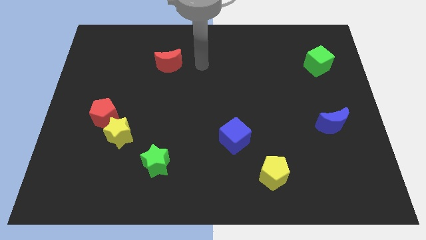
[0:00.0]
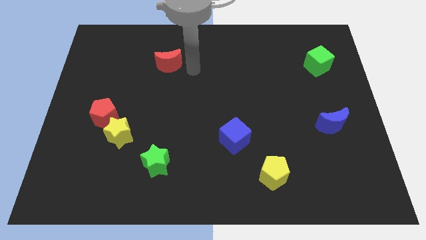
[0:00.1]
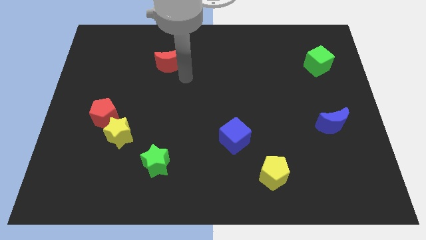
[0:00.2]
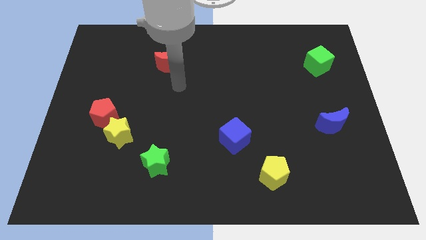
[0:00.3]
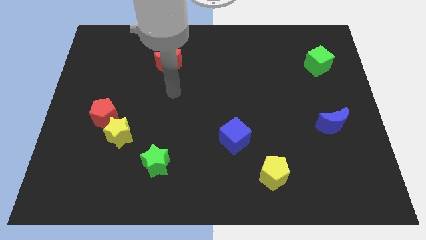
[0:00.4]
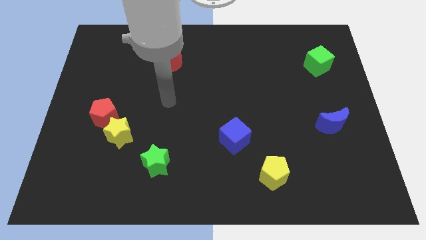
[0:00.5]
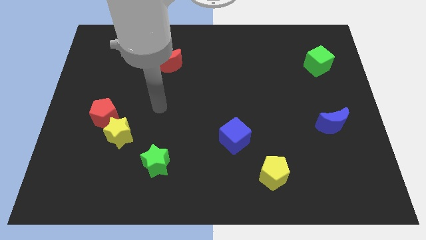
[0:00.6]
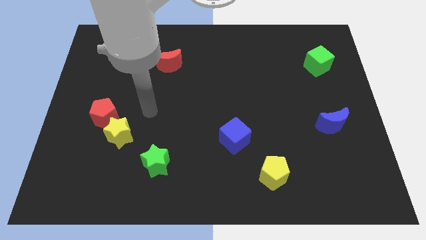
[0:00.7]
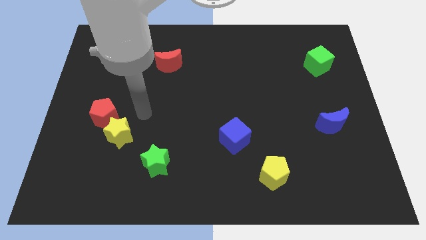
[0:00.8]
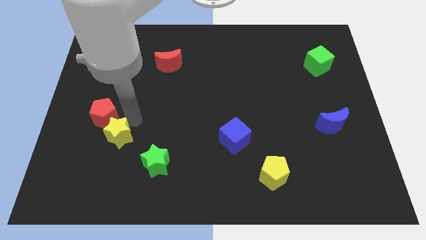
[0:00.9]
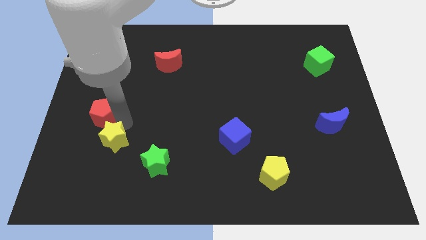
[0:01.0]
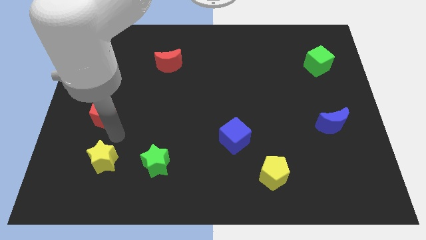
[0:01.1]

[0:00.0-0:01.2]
separate the red pentagon from the yellow star

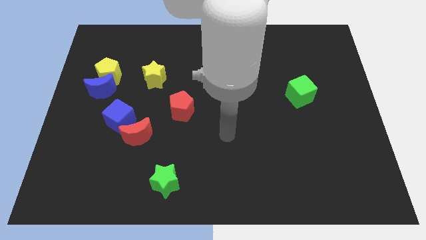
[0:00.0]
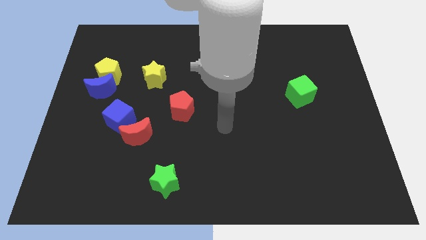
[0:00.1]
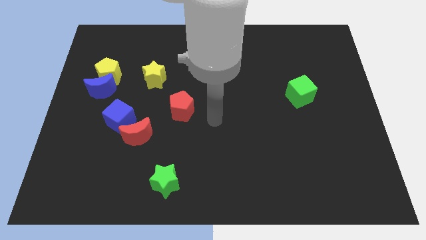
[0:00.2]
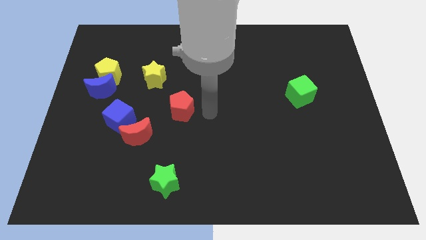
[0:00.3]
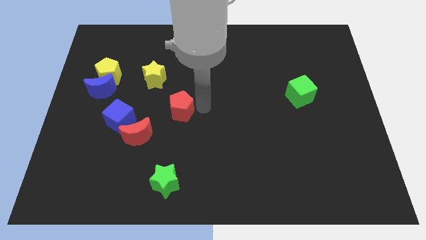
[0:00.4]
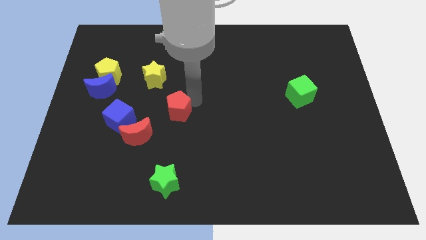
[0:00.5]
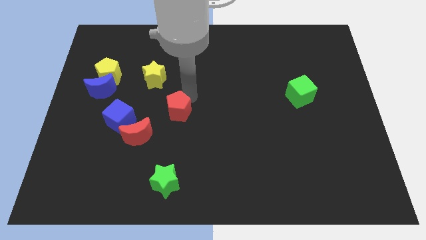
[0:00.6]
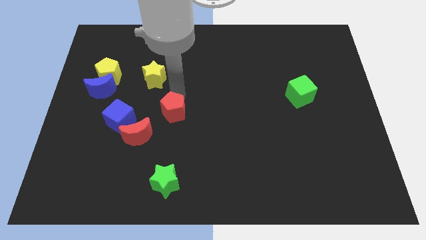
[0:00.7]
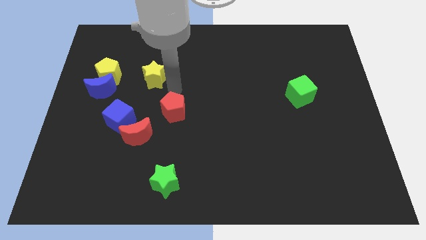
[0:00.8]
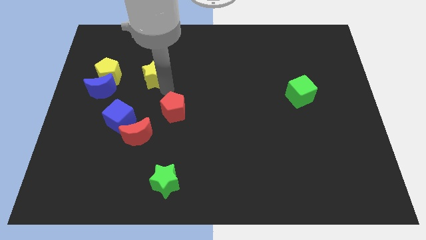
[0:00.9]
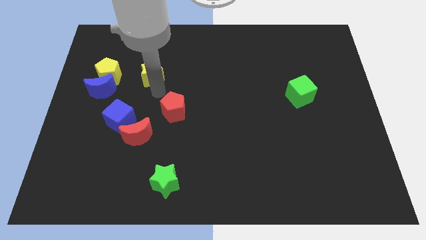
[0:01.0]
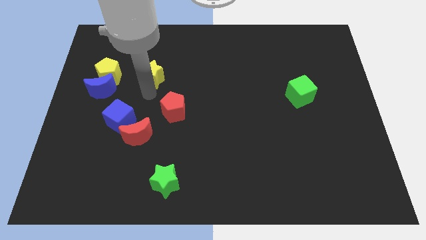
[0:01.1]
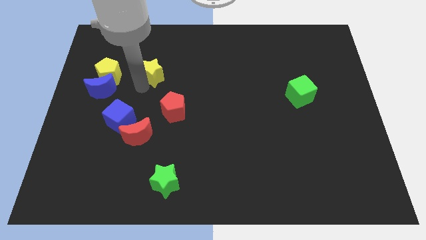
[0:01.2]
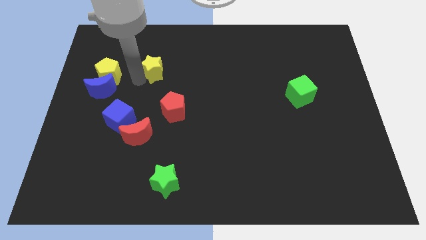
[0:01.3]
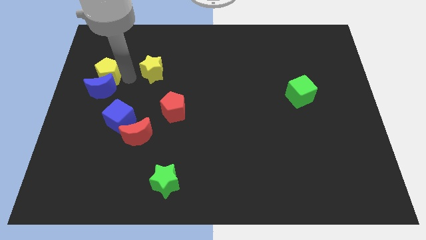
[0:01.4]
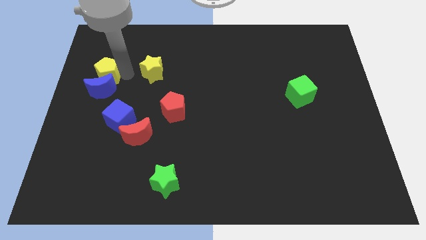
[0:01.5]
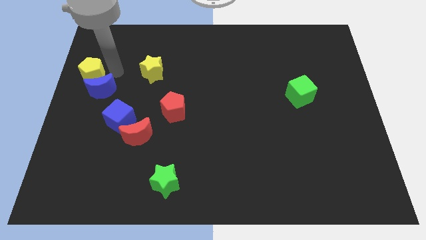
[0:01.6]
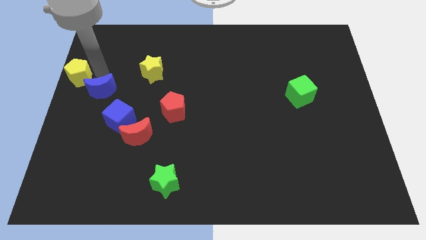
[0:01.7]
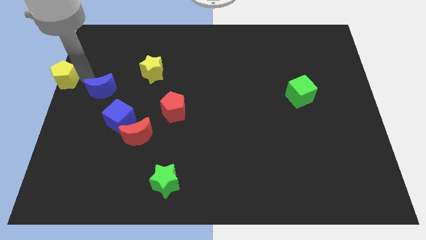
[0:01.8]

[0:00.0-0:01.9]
move the blue moon away from the yellow pentagon

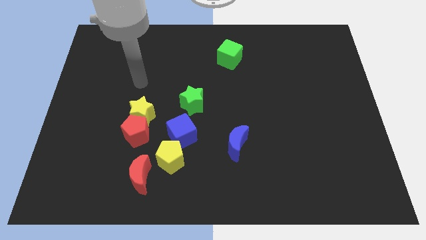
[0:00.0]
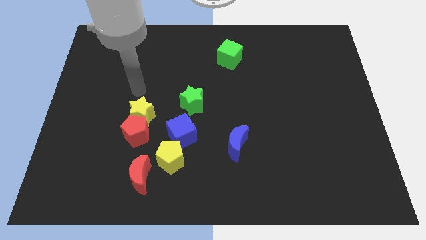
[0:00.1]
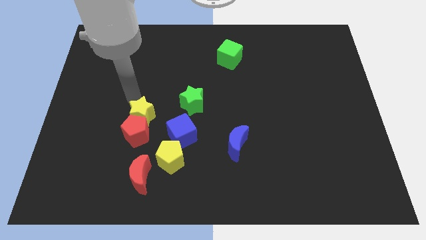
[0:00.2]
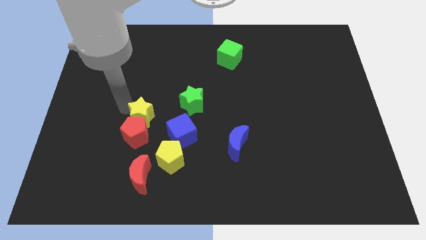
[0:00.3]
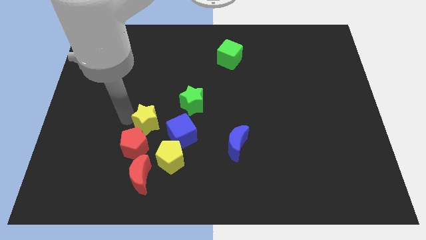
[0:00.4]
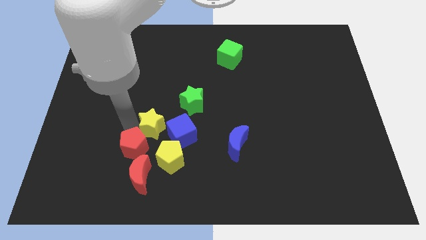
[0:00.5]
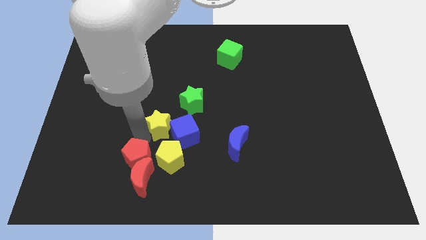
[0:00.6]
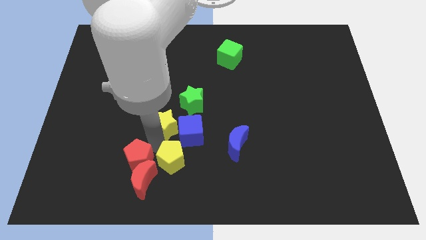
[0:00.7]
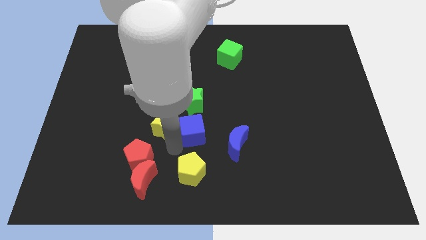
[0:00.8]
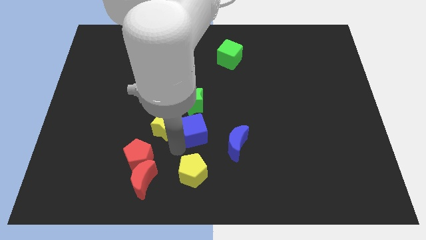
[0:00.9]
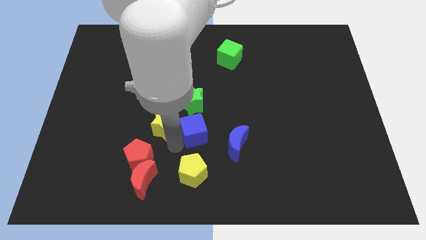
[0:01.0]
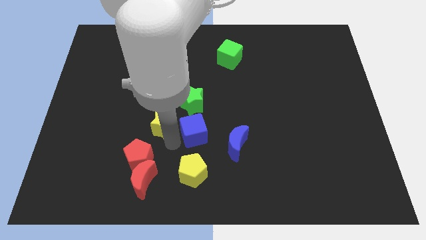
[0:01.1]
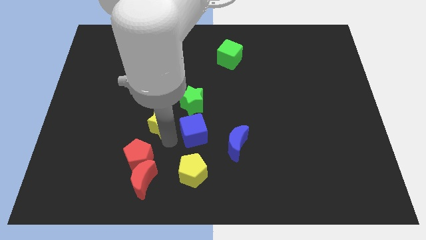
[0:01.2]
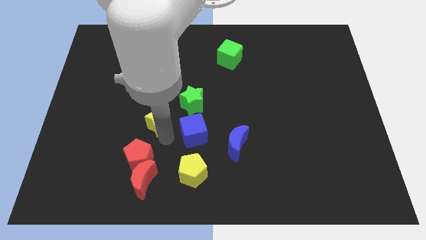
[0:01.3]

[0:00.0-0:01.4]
move the yellow star away from the red pentagon

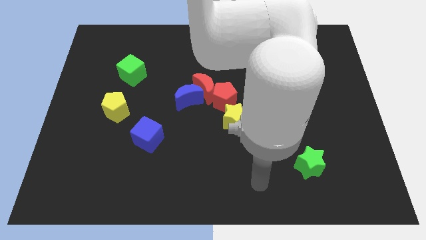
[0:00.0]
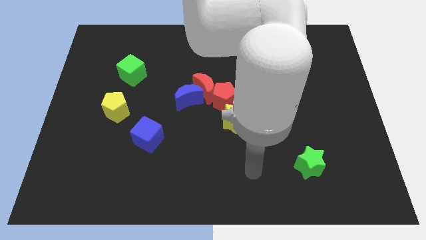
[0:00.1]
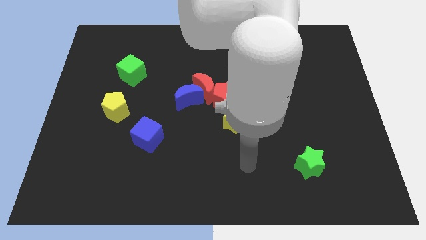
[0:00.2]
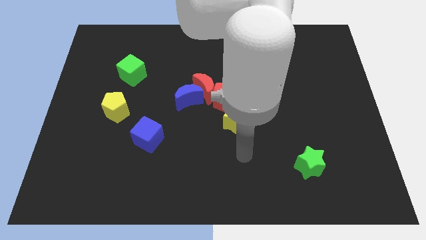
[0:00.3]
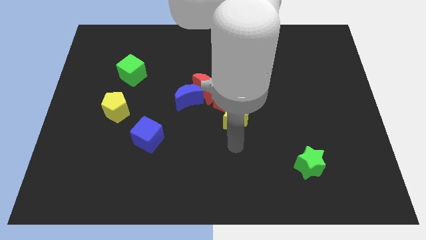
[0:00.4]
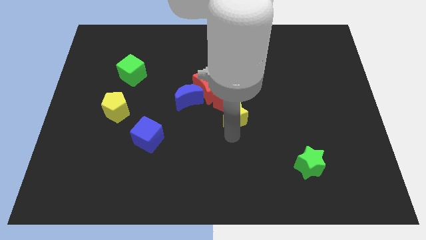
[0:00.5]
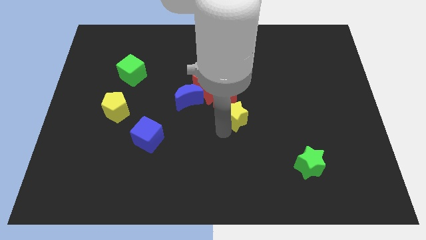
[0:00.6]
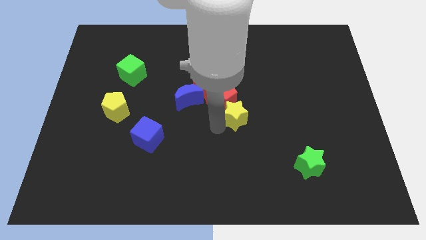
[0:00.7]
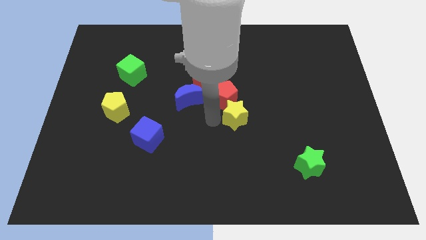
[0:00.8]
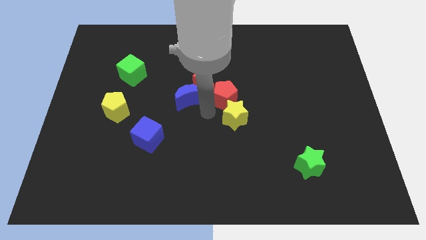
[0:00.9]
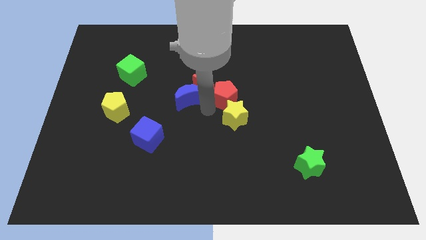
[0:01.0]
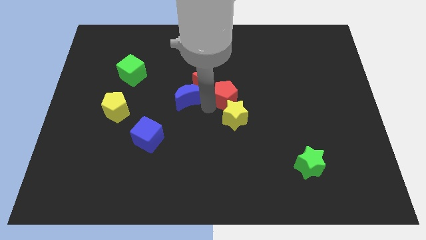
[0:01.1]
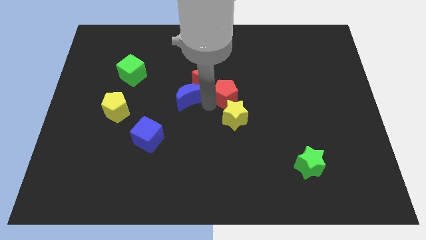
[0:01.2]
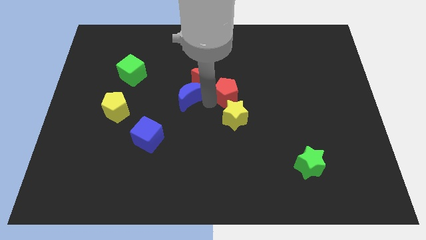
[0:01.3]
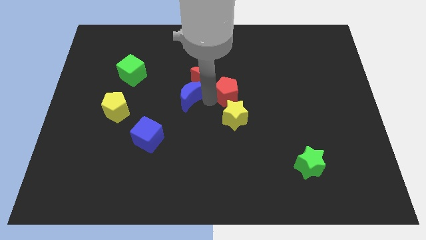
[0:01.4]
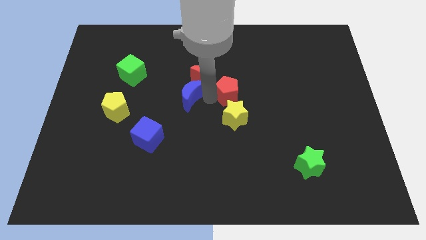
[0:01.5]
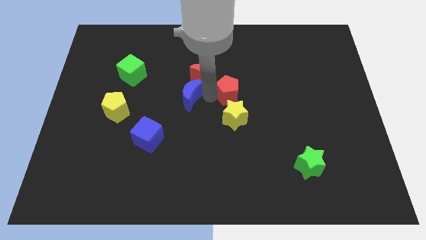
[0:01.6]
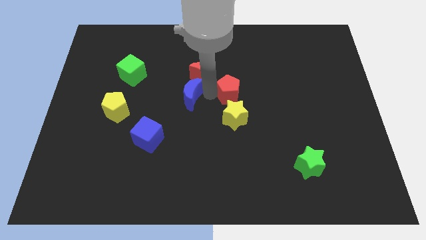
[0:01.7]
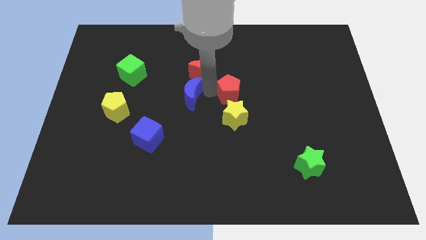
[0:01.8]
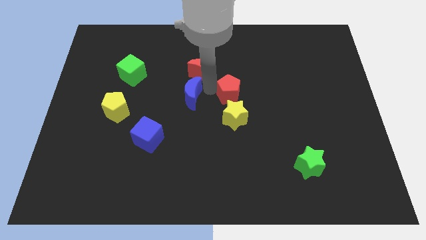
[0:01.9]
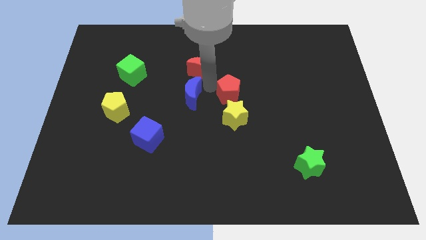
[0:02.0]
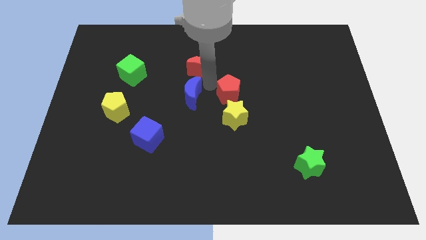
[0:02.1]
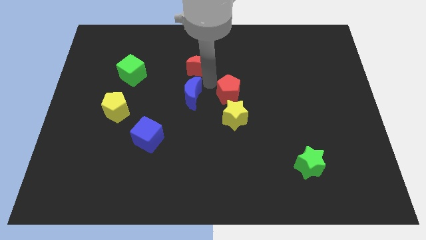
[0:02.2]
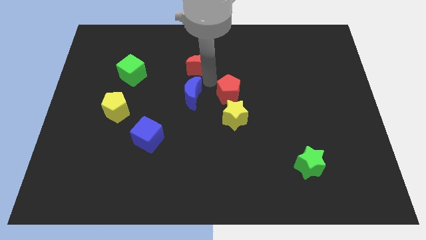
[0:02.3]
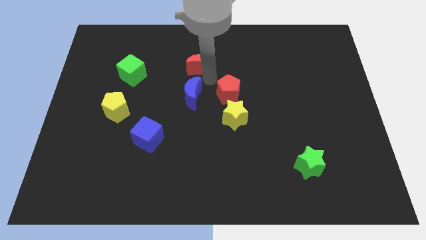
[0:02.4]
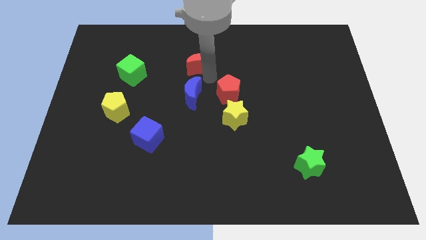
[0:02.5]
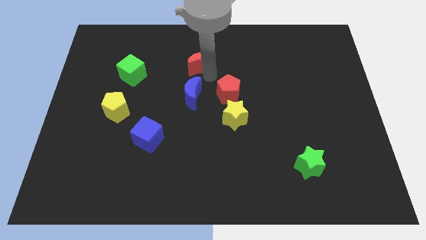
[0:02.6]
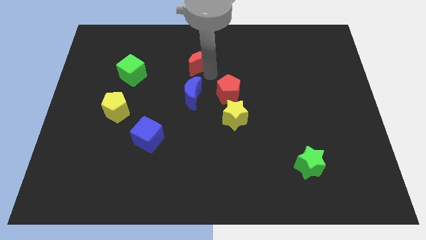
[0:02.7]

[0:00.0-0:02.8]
pull the red moon apart from the blue moon and red pentagon

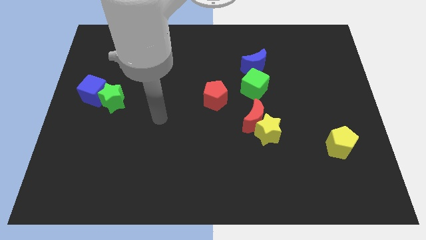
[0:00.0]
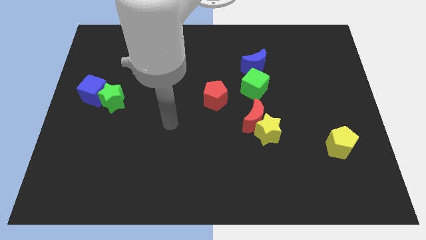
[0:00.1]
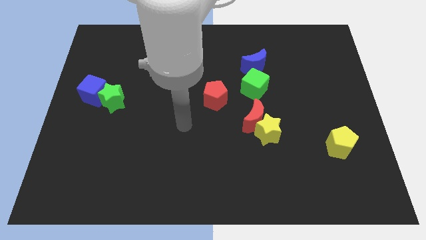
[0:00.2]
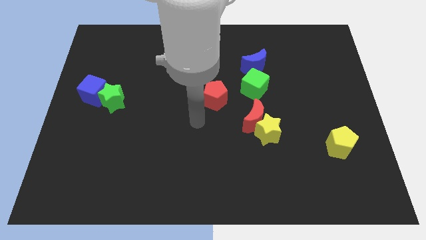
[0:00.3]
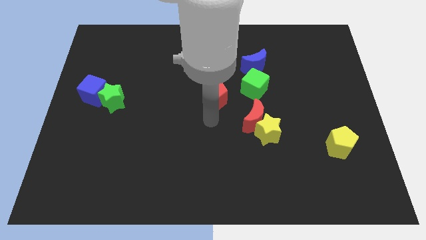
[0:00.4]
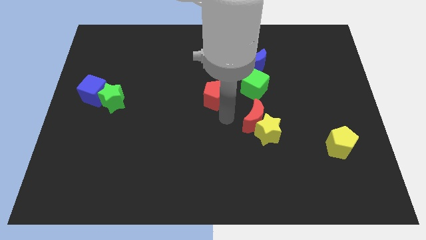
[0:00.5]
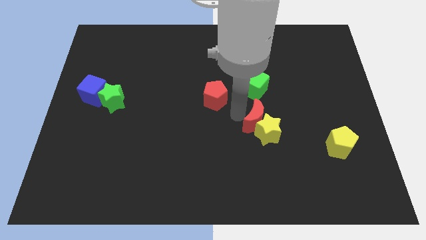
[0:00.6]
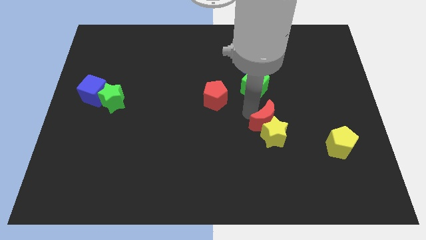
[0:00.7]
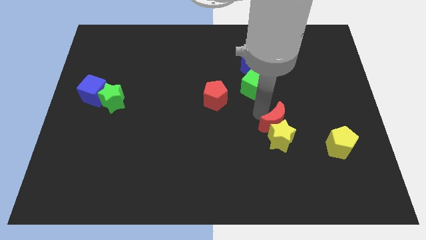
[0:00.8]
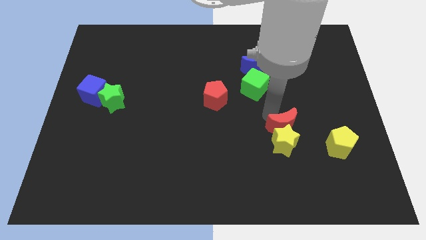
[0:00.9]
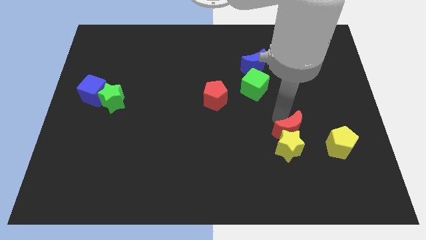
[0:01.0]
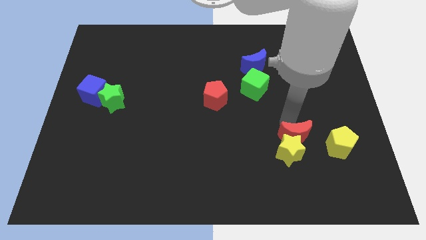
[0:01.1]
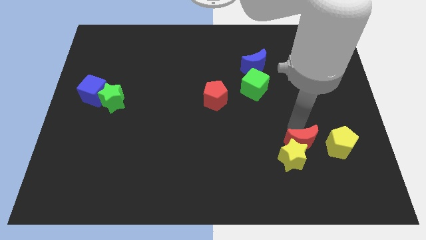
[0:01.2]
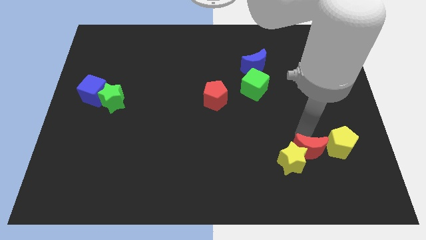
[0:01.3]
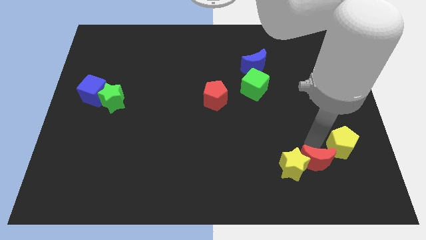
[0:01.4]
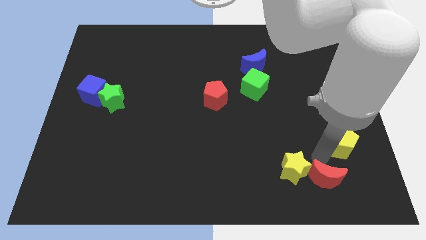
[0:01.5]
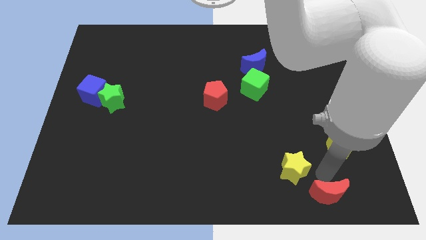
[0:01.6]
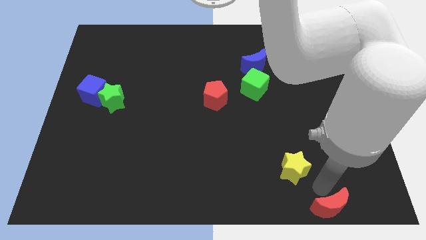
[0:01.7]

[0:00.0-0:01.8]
move the yellow star away from the red moon

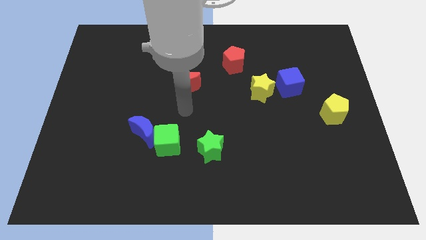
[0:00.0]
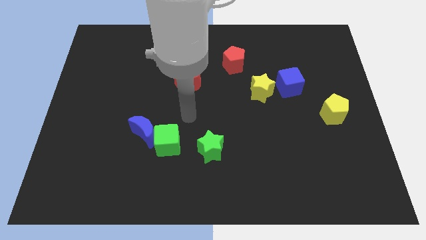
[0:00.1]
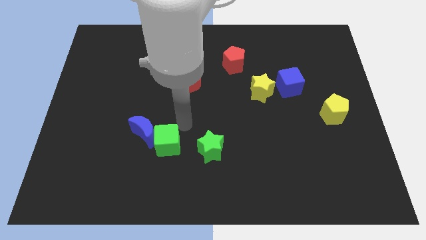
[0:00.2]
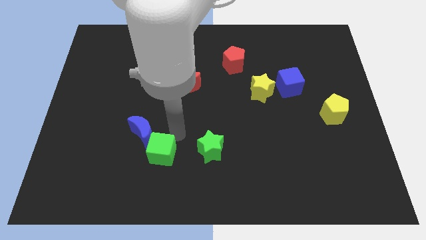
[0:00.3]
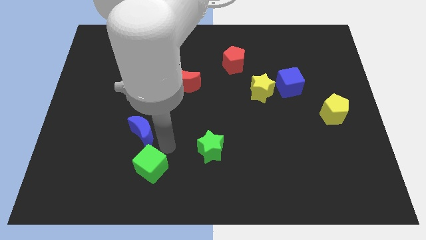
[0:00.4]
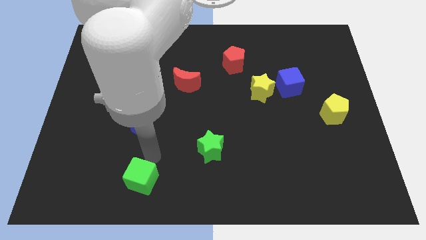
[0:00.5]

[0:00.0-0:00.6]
pull the blue moon apart from the green cube
